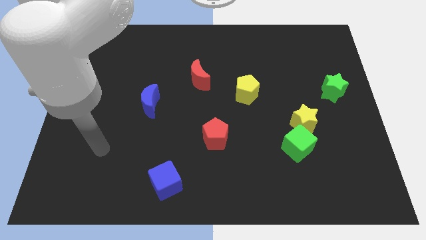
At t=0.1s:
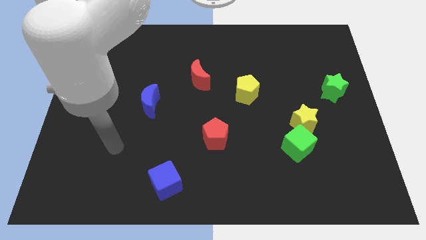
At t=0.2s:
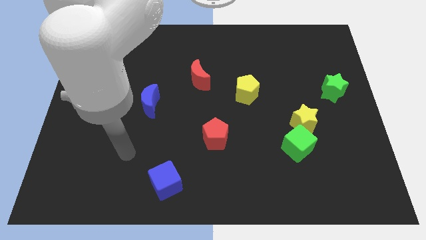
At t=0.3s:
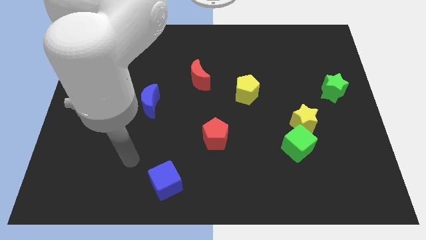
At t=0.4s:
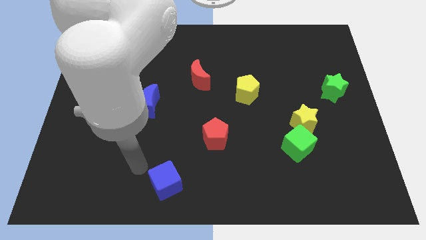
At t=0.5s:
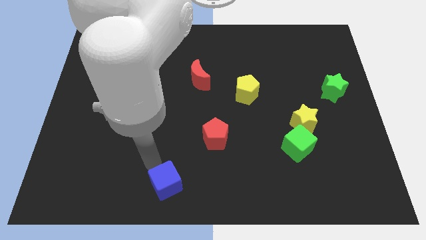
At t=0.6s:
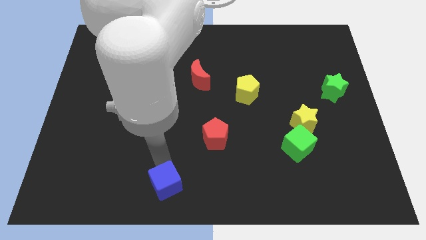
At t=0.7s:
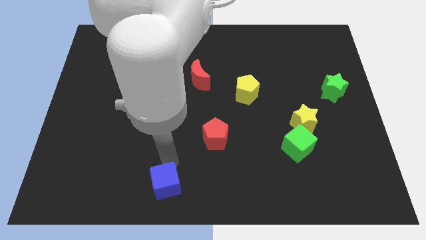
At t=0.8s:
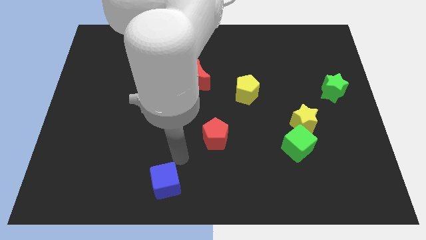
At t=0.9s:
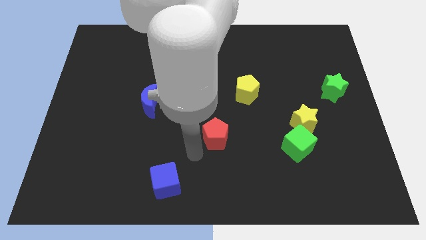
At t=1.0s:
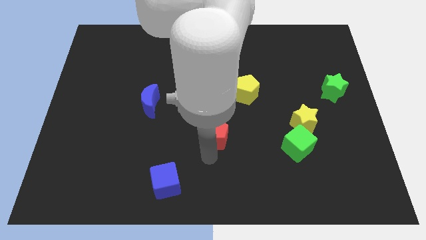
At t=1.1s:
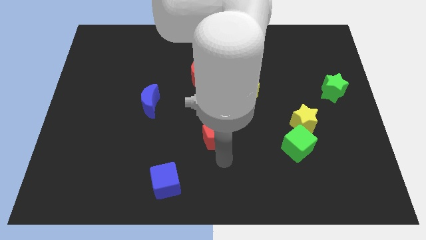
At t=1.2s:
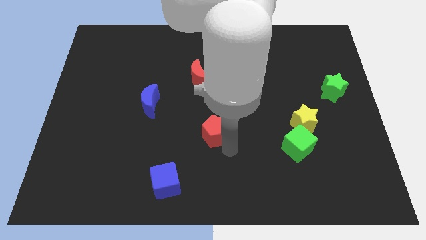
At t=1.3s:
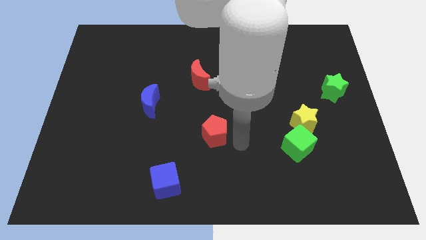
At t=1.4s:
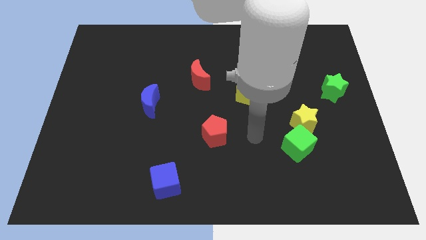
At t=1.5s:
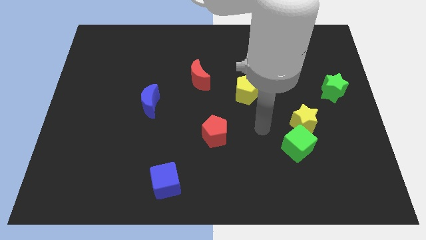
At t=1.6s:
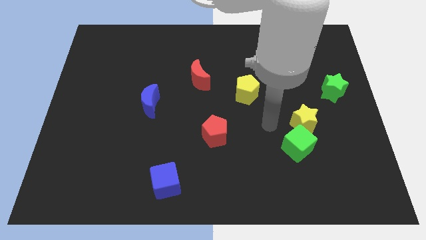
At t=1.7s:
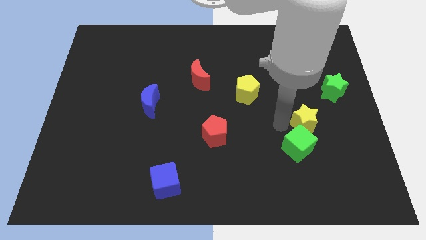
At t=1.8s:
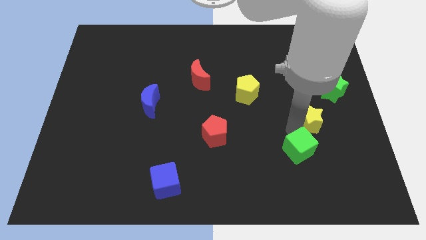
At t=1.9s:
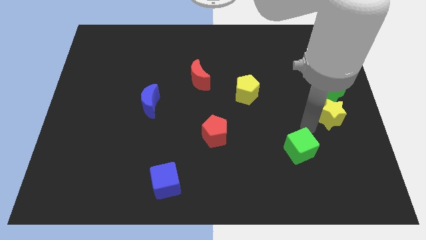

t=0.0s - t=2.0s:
move the green cube away from the yellow star

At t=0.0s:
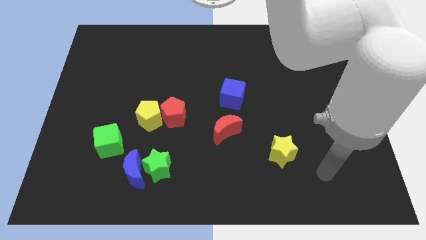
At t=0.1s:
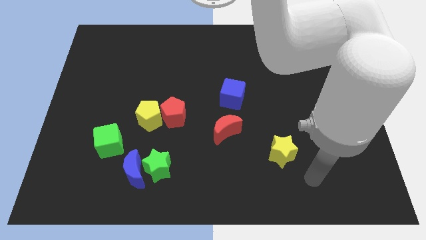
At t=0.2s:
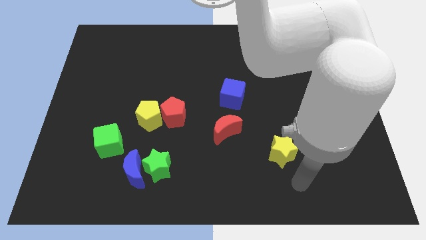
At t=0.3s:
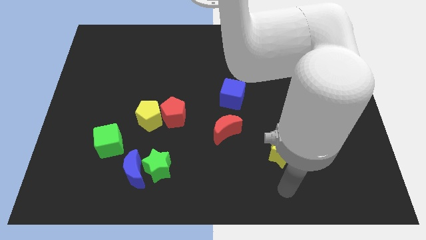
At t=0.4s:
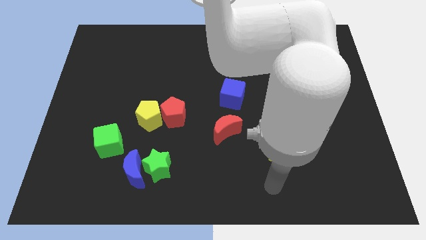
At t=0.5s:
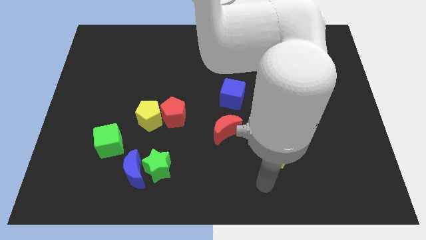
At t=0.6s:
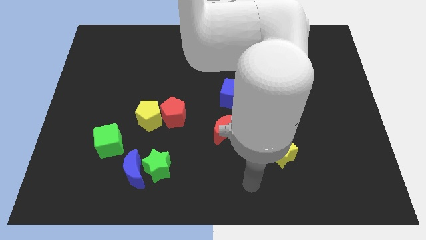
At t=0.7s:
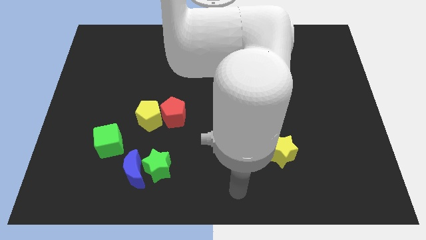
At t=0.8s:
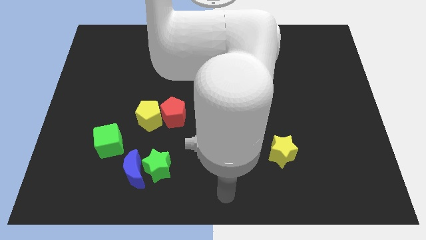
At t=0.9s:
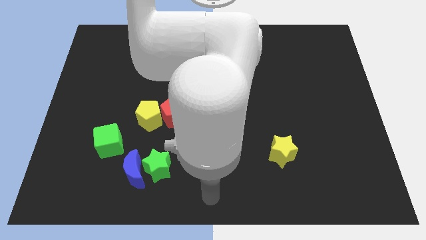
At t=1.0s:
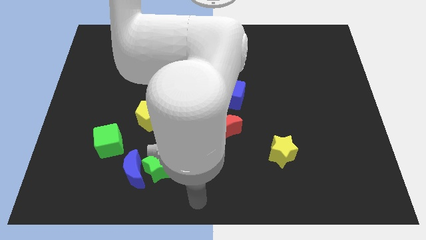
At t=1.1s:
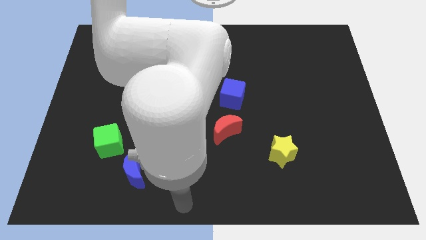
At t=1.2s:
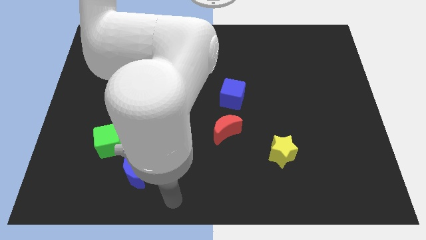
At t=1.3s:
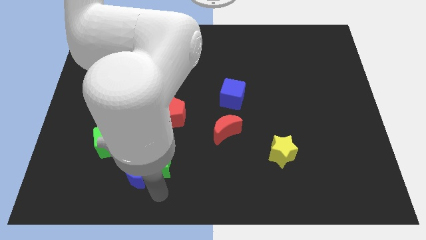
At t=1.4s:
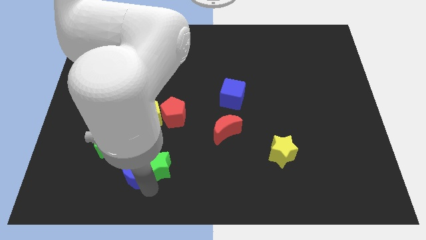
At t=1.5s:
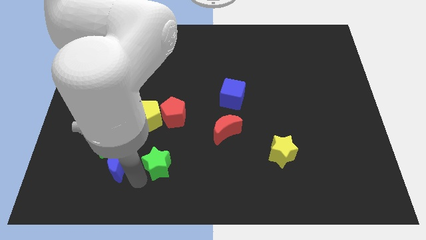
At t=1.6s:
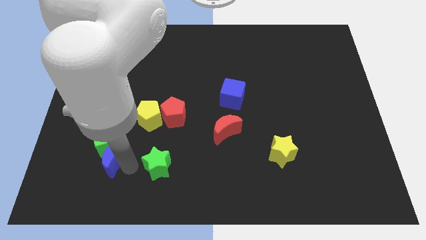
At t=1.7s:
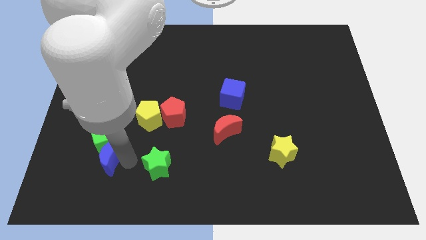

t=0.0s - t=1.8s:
move the green star away from the blue moon

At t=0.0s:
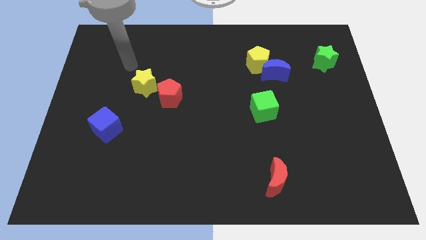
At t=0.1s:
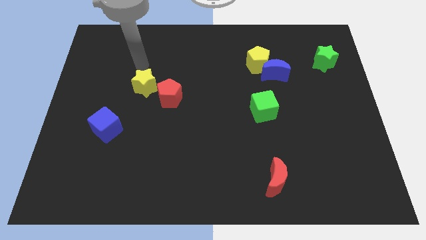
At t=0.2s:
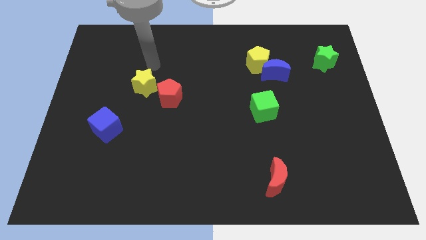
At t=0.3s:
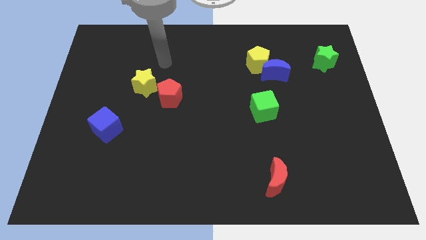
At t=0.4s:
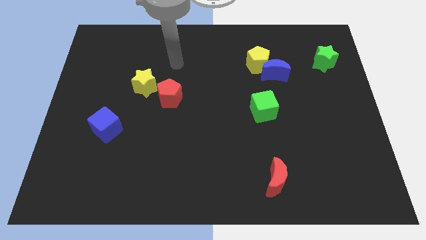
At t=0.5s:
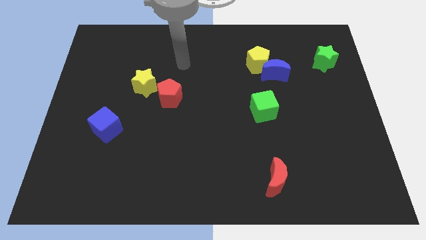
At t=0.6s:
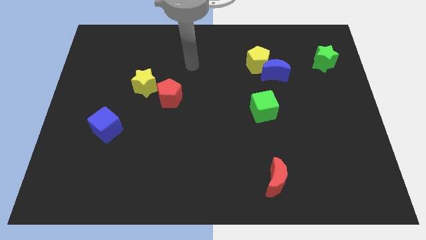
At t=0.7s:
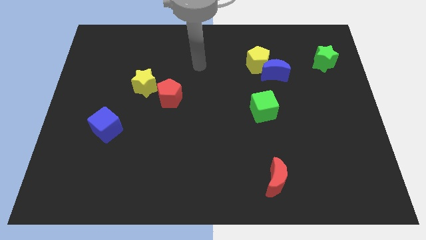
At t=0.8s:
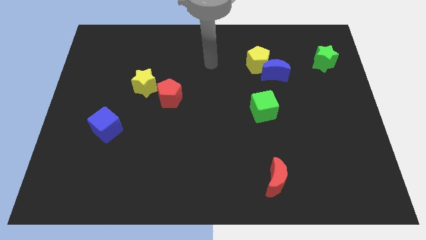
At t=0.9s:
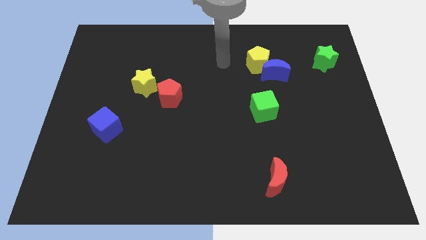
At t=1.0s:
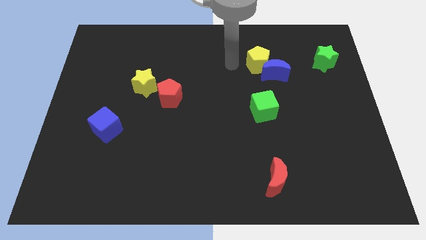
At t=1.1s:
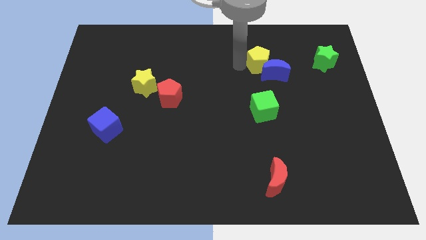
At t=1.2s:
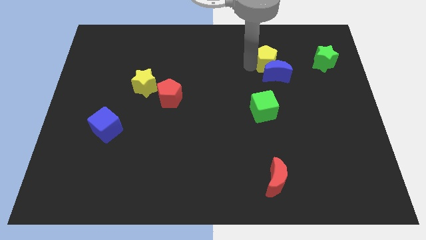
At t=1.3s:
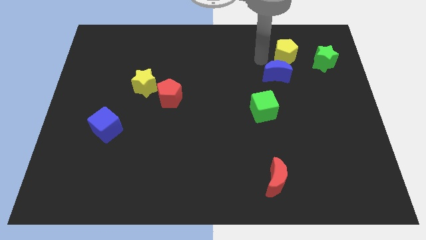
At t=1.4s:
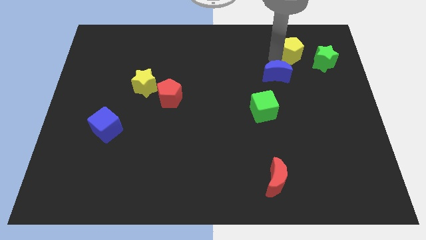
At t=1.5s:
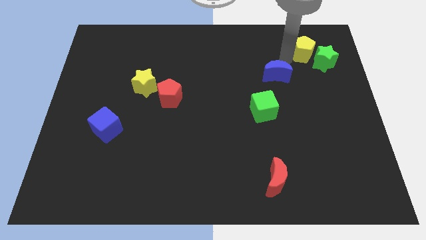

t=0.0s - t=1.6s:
separate the blue moon from the yellow pentagon

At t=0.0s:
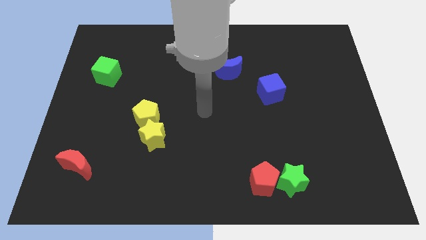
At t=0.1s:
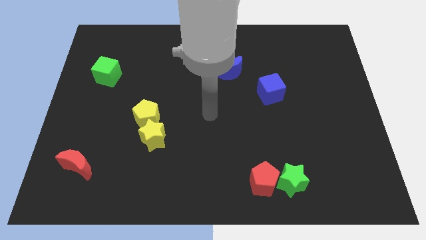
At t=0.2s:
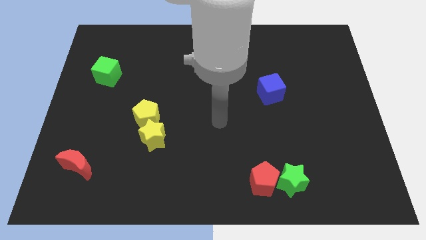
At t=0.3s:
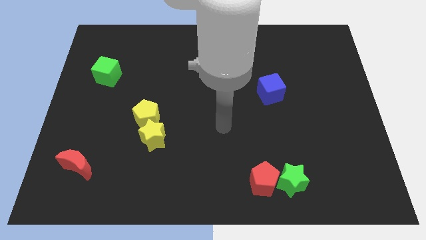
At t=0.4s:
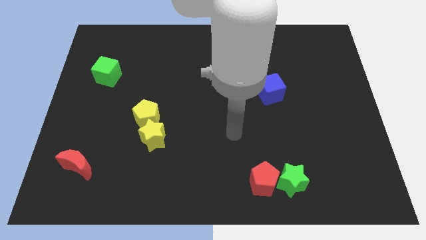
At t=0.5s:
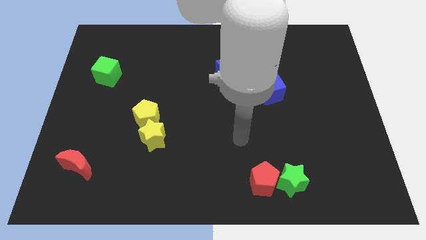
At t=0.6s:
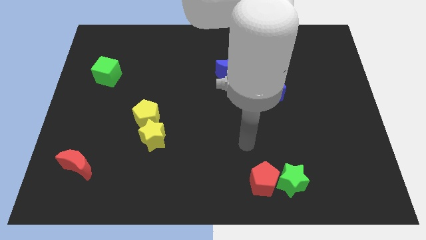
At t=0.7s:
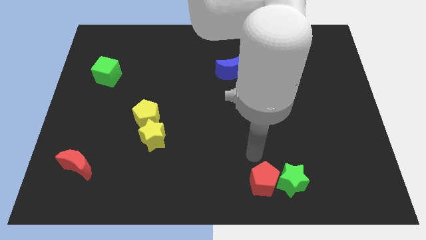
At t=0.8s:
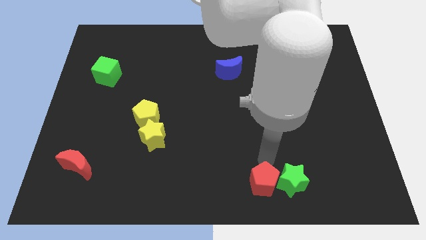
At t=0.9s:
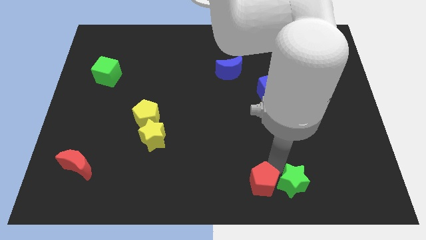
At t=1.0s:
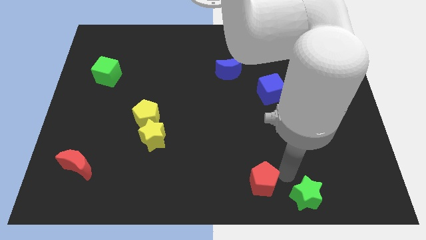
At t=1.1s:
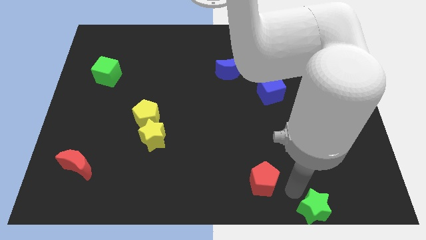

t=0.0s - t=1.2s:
move the red pentagon away from the green star

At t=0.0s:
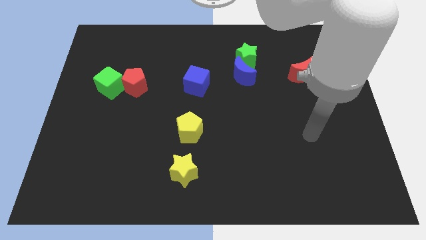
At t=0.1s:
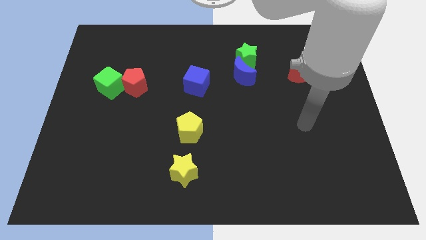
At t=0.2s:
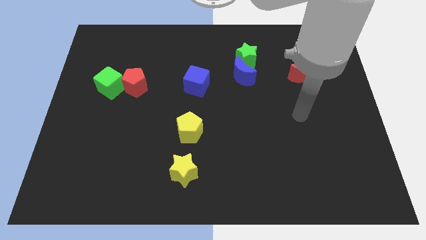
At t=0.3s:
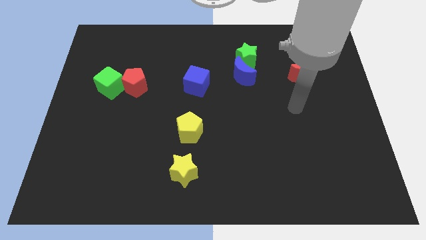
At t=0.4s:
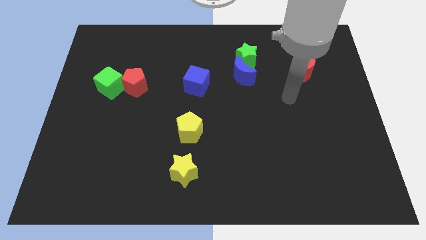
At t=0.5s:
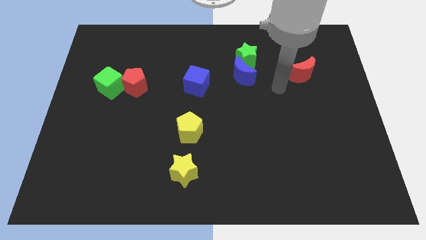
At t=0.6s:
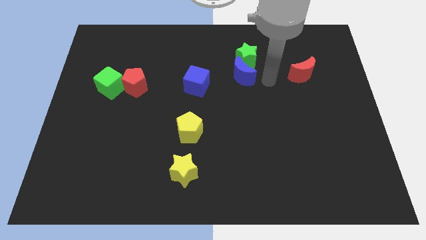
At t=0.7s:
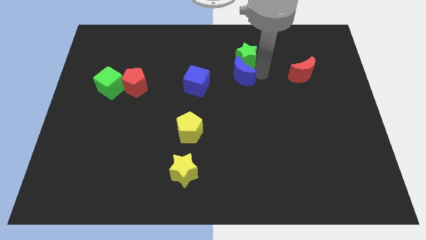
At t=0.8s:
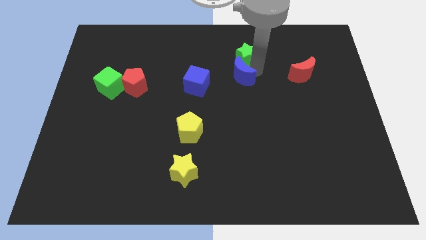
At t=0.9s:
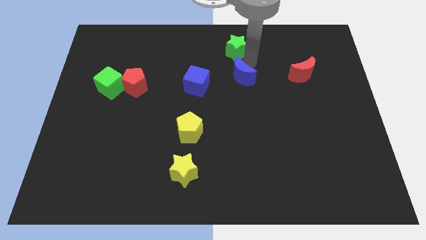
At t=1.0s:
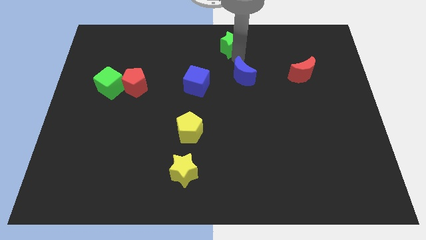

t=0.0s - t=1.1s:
move the blue moon away from the green star

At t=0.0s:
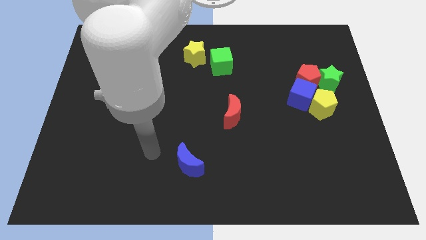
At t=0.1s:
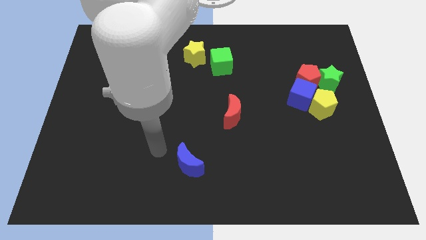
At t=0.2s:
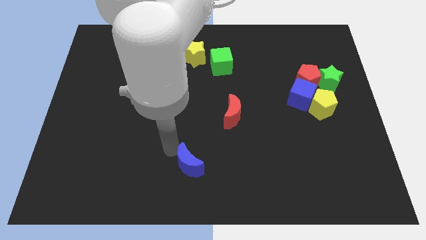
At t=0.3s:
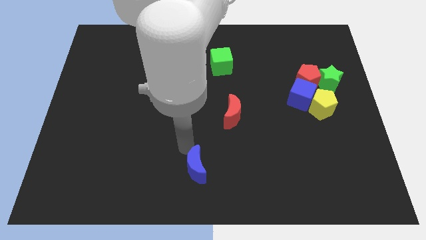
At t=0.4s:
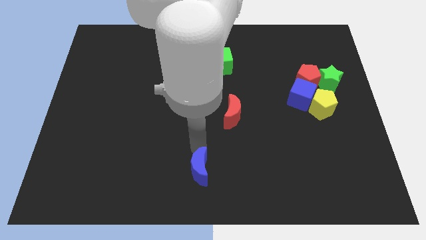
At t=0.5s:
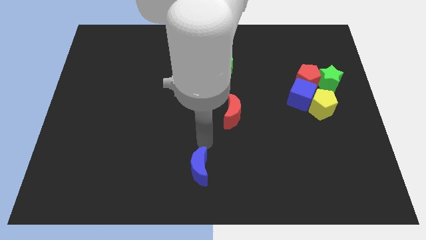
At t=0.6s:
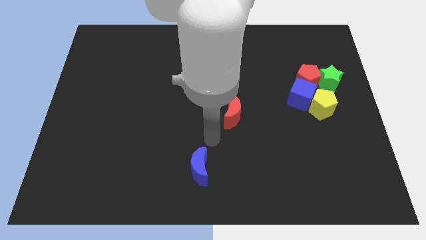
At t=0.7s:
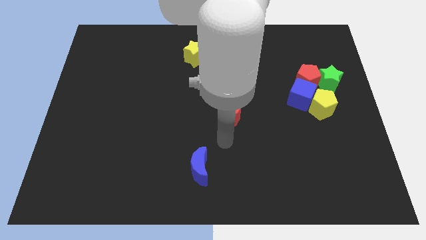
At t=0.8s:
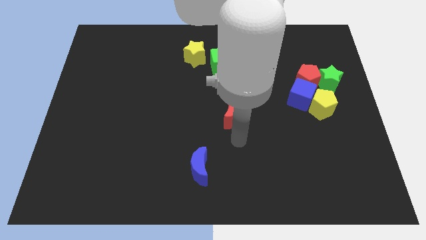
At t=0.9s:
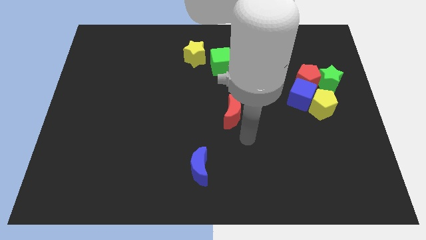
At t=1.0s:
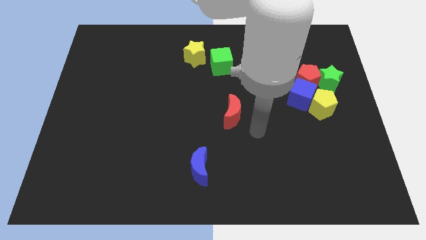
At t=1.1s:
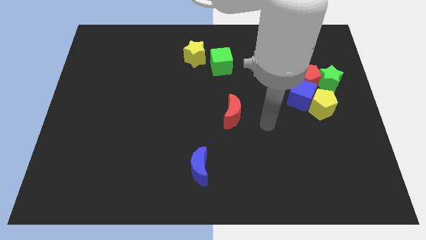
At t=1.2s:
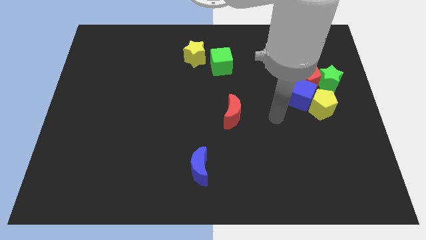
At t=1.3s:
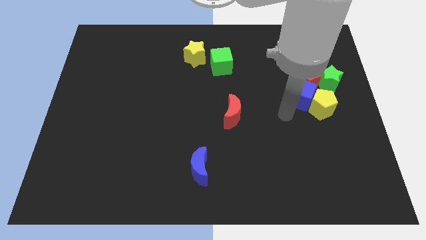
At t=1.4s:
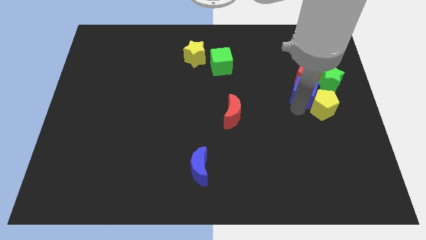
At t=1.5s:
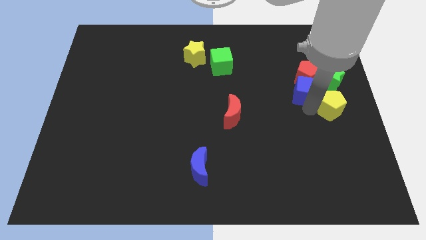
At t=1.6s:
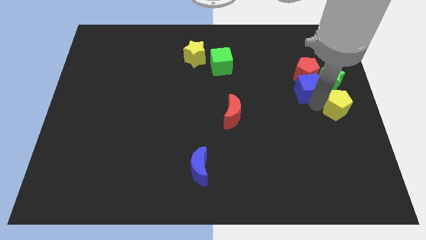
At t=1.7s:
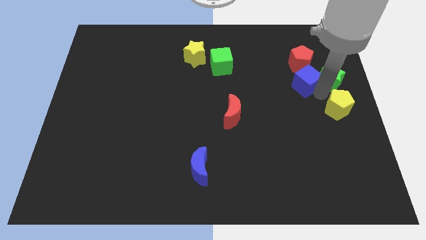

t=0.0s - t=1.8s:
separate the red pentagon from the clump
